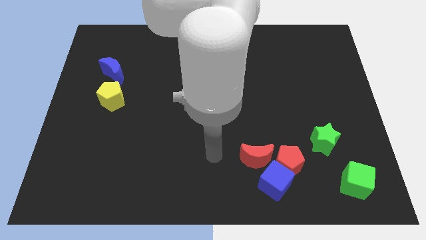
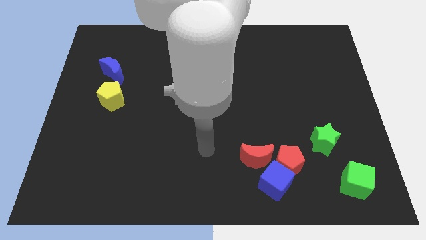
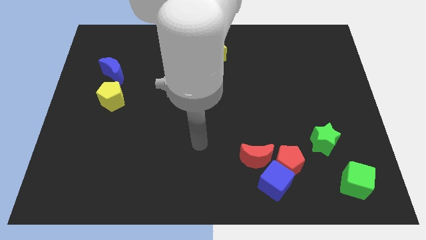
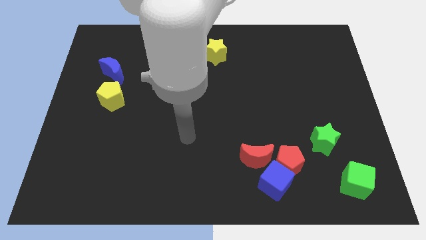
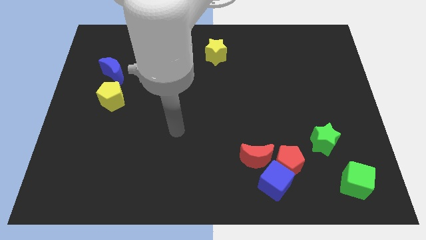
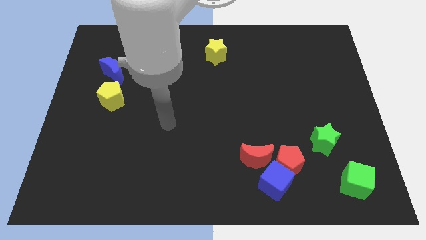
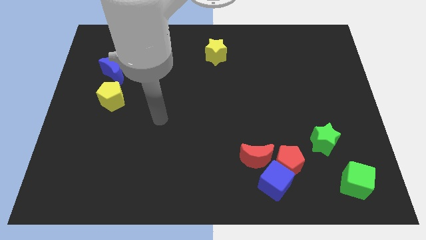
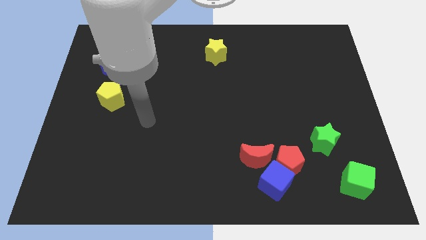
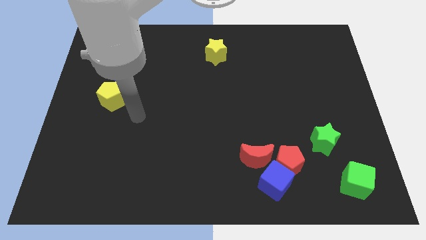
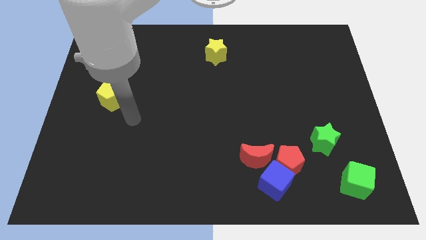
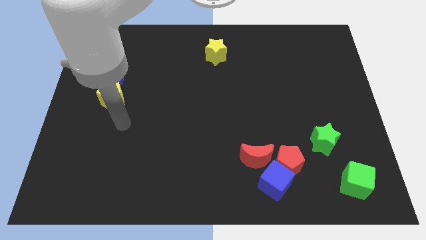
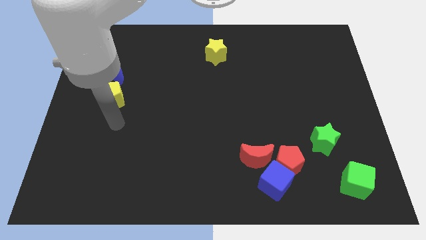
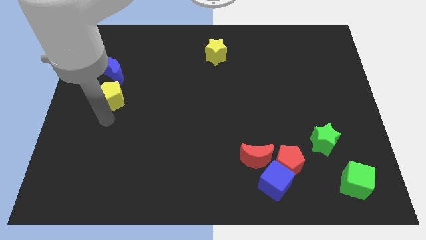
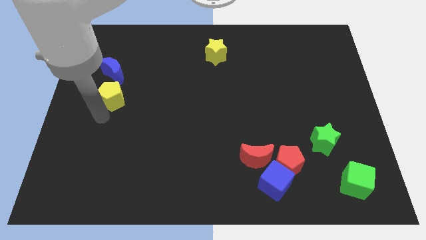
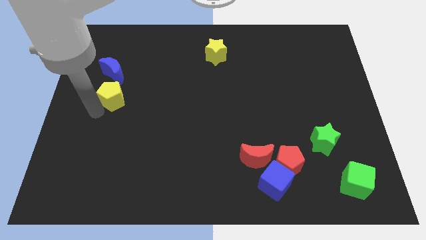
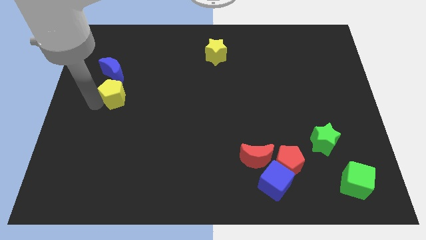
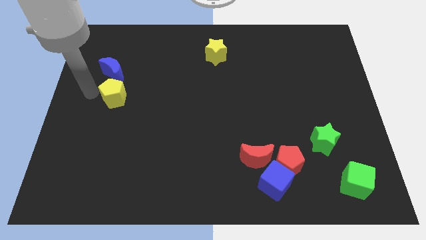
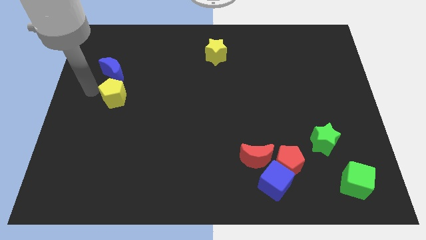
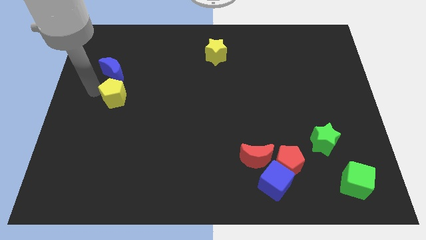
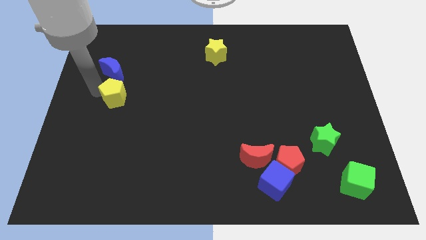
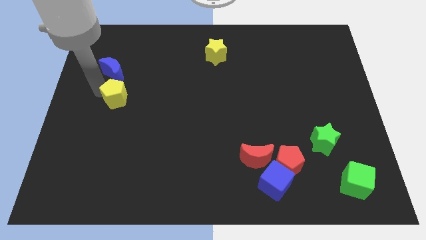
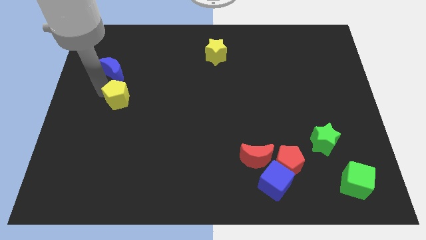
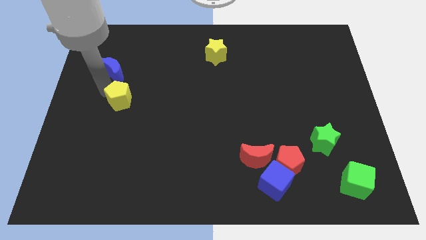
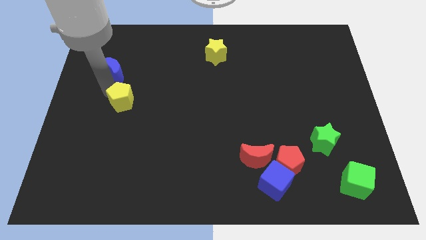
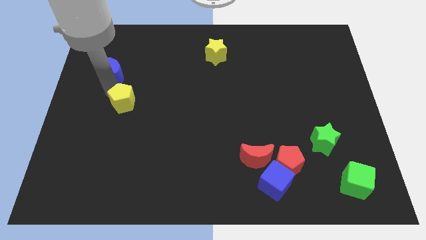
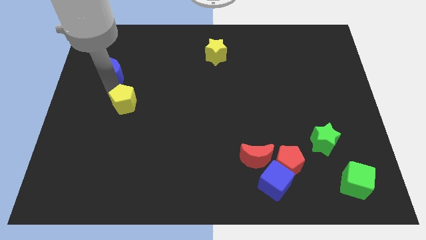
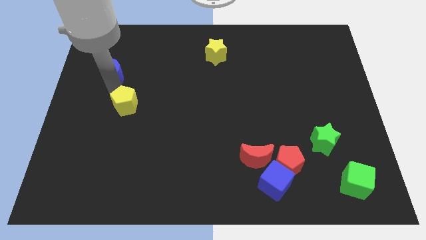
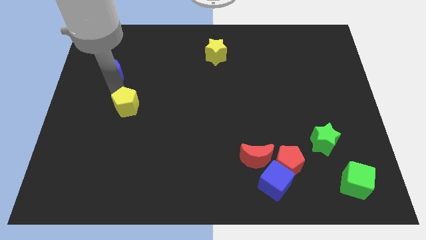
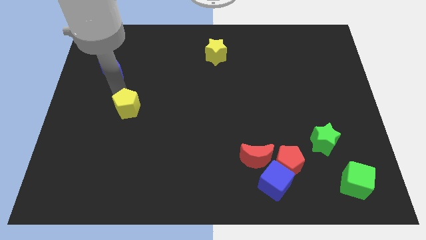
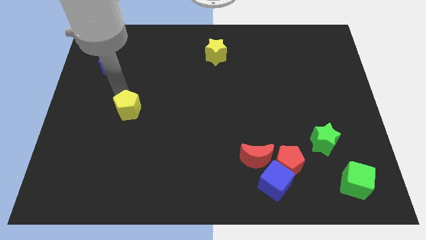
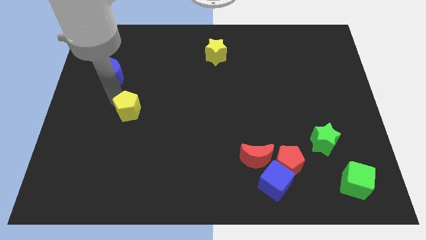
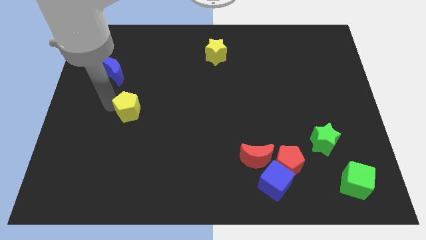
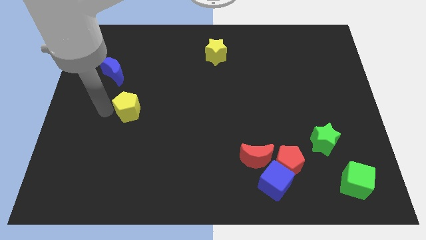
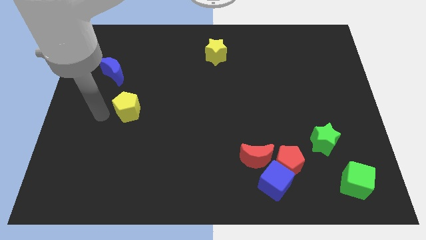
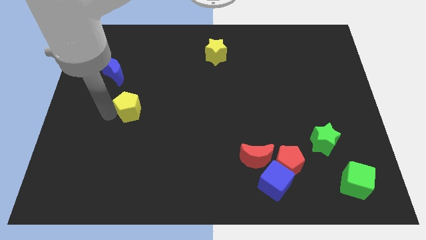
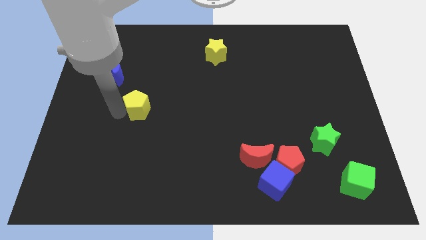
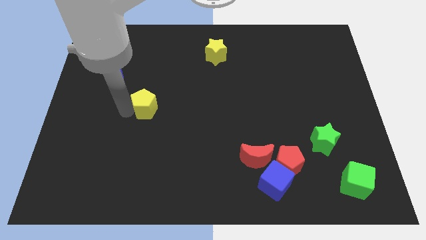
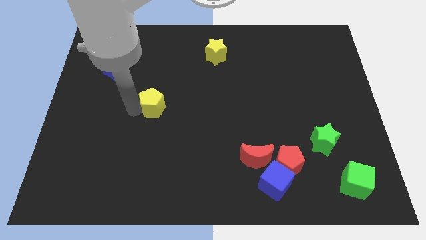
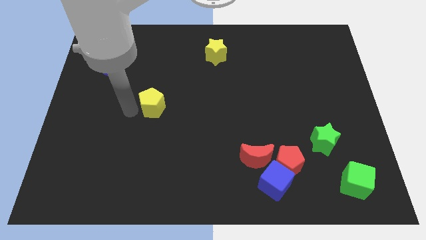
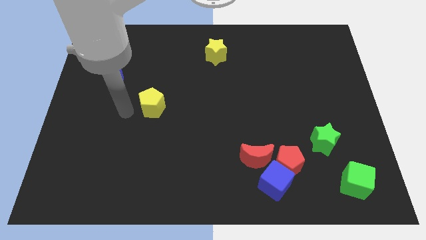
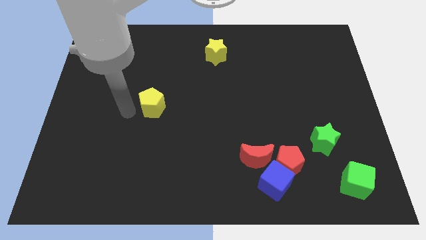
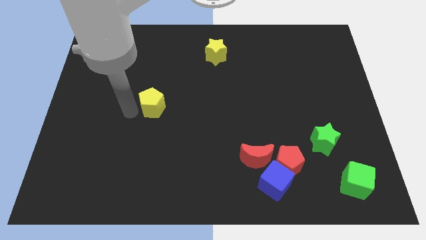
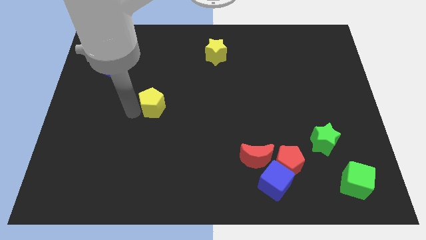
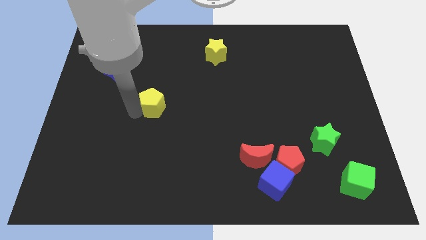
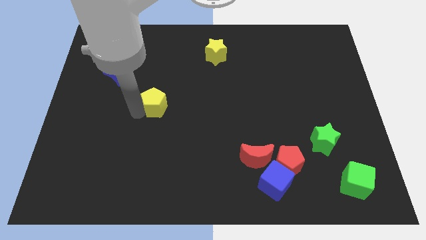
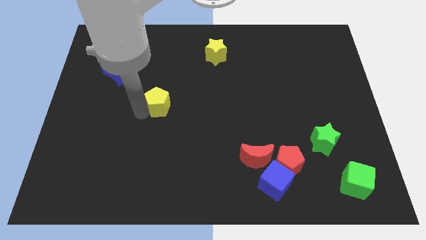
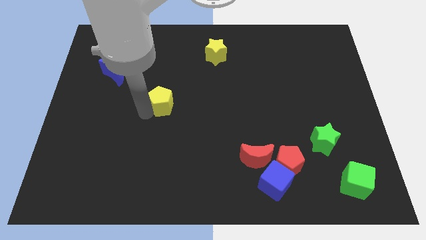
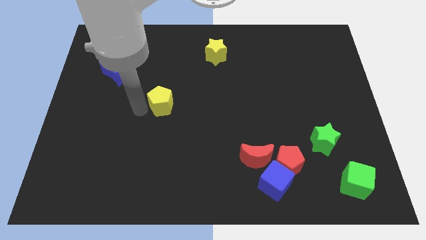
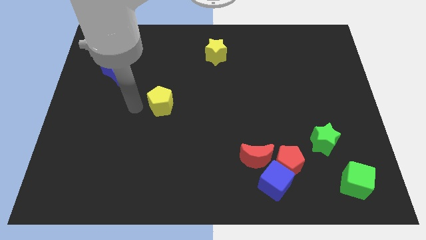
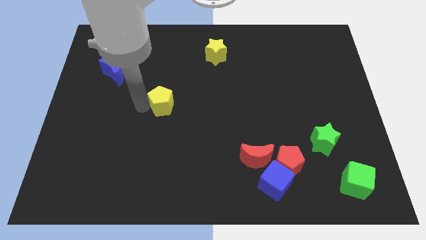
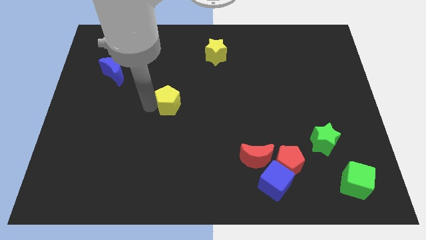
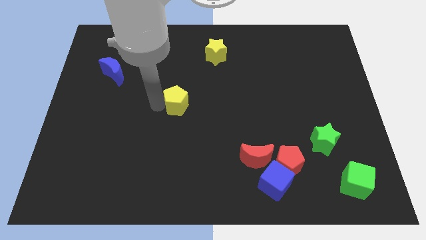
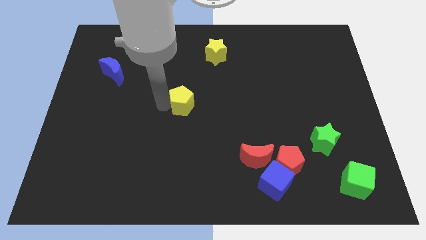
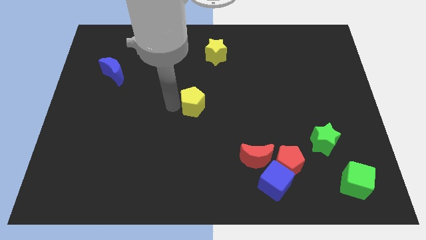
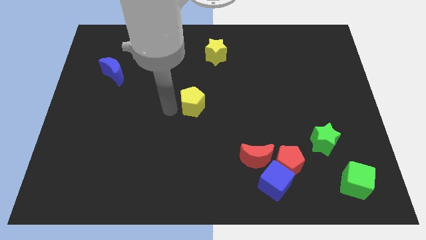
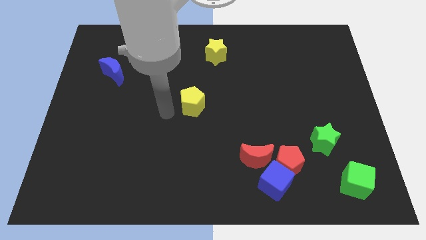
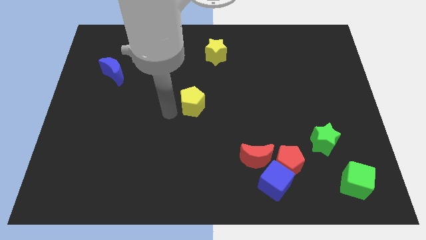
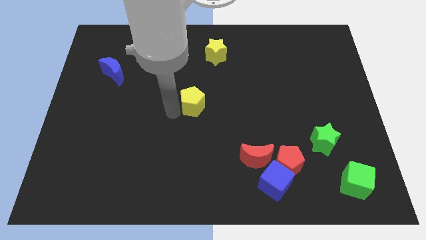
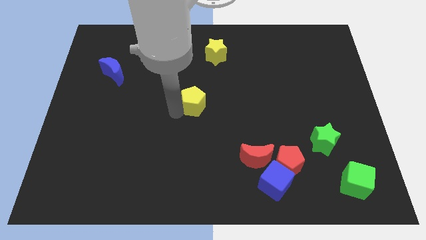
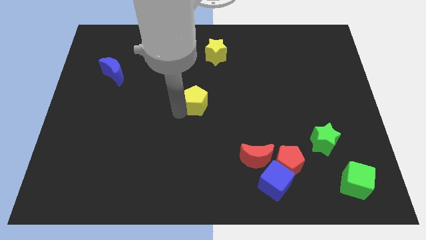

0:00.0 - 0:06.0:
push the yellow pentagon to the right

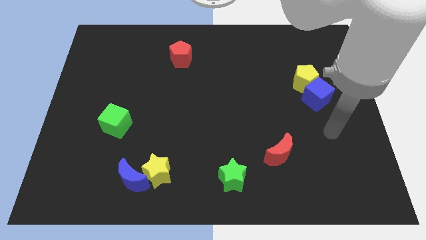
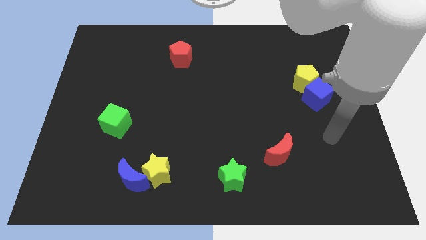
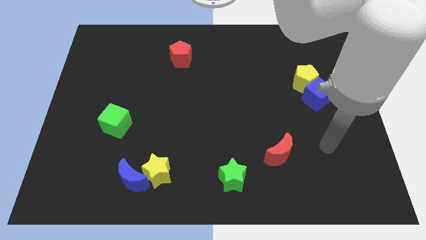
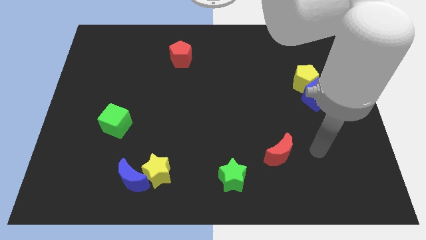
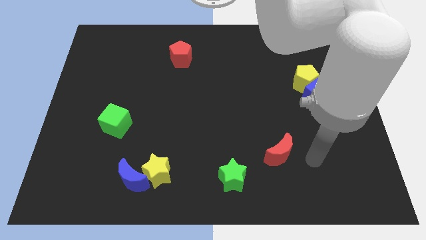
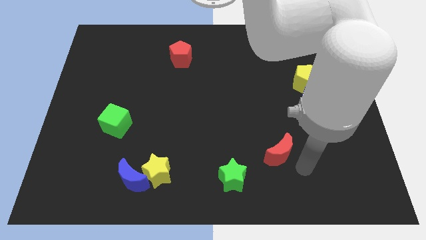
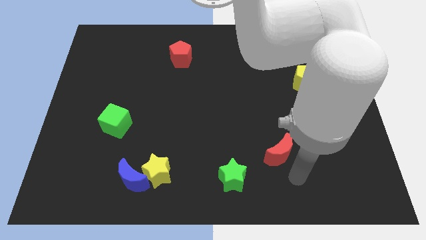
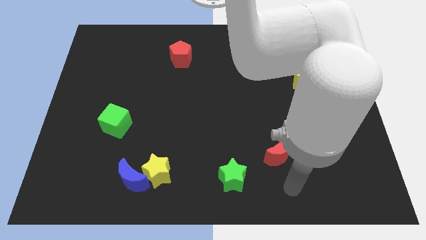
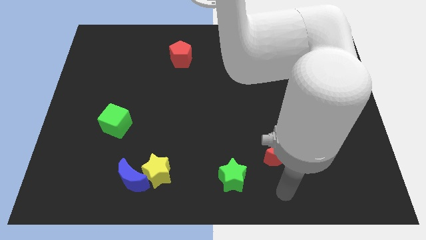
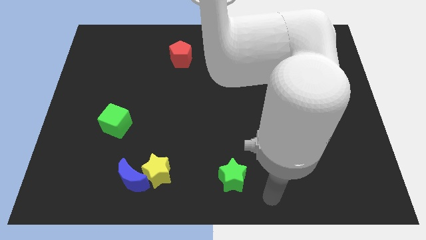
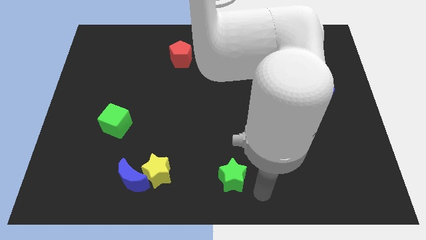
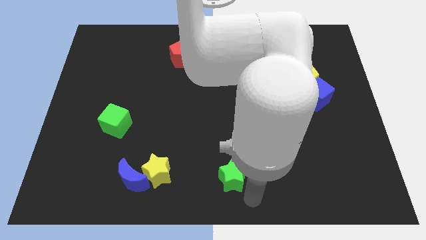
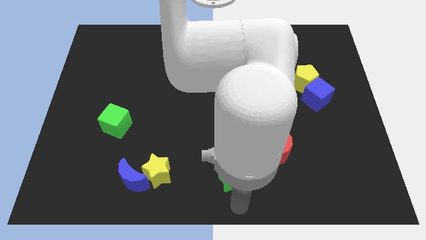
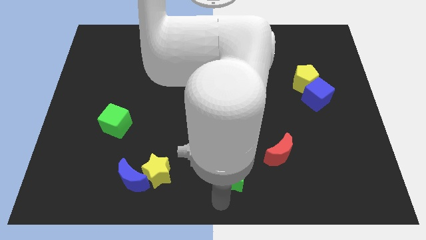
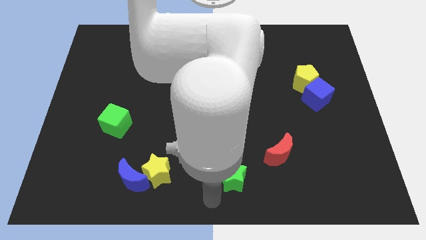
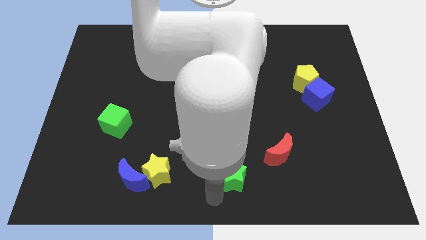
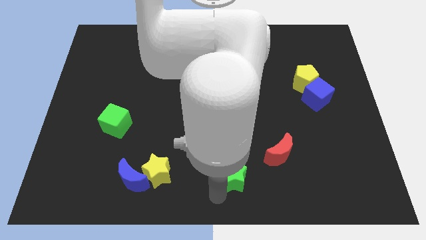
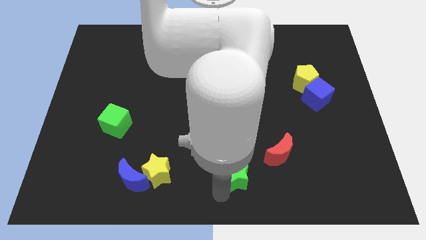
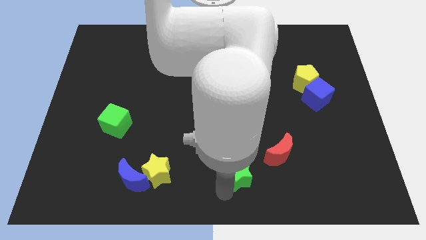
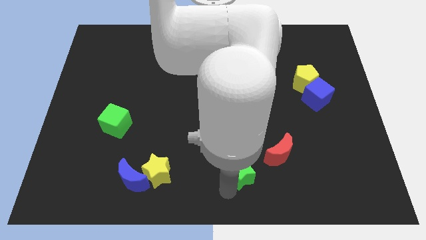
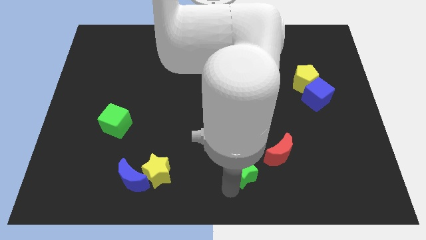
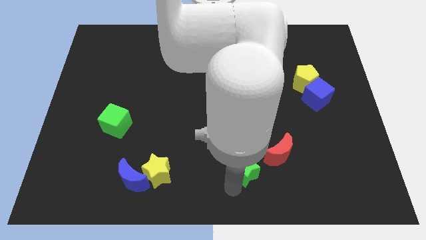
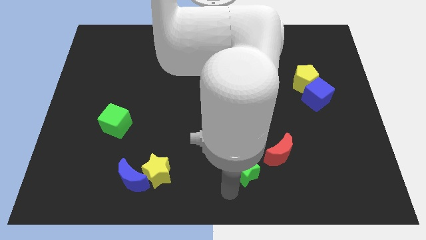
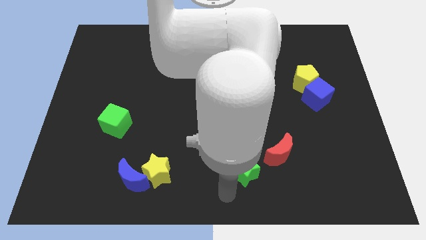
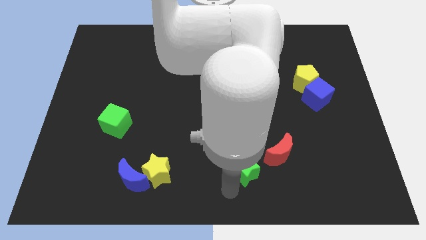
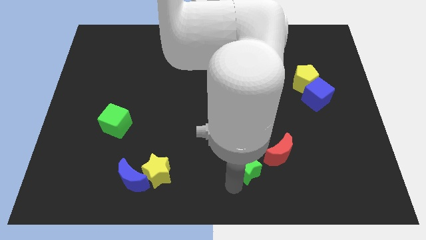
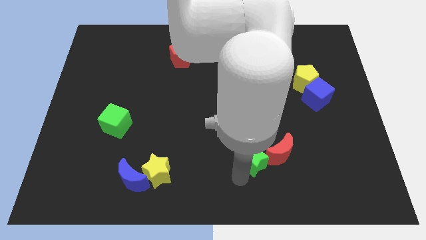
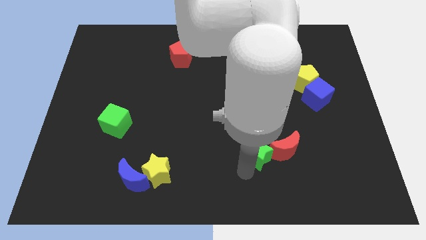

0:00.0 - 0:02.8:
slightly push the green star diagonally upwards and to the right
